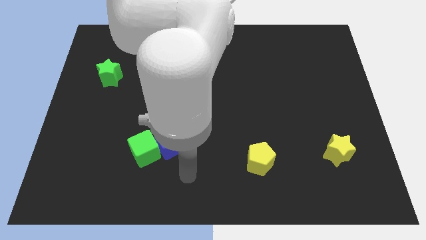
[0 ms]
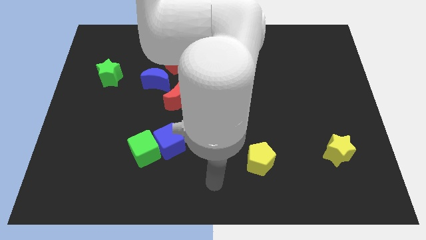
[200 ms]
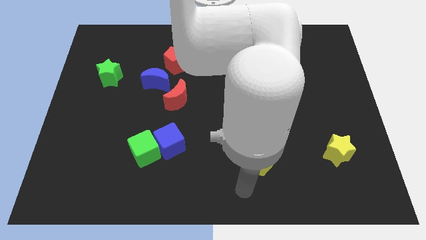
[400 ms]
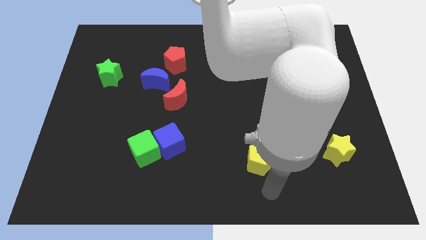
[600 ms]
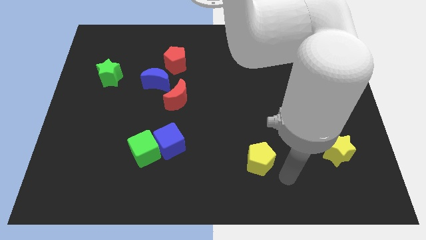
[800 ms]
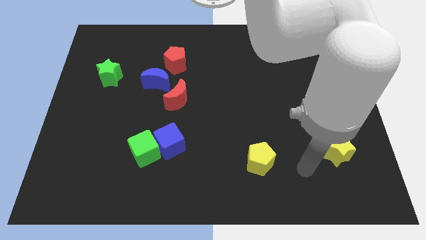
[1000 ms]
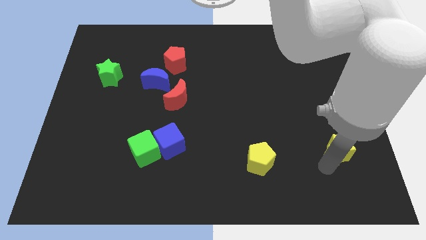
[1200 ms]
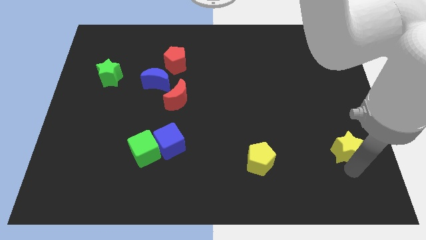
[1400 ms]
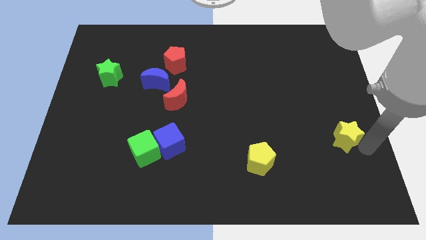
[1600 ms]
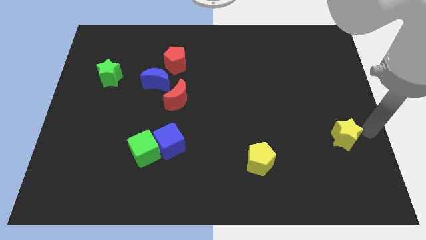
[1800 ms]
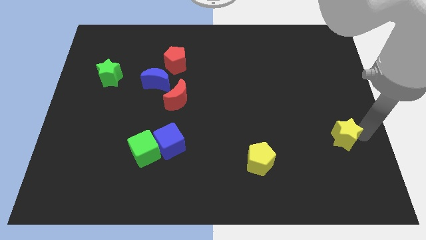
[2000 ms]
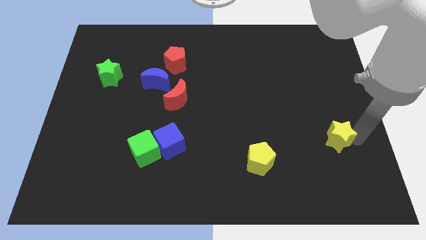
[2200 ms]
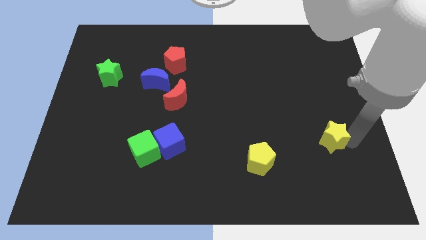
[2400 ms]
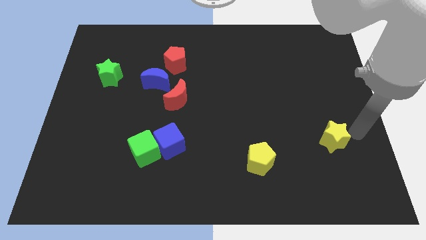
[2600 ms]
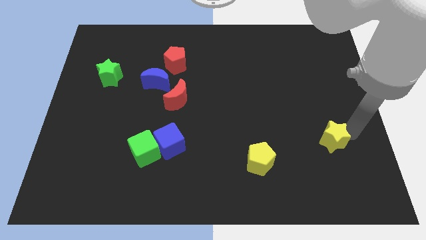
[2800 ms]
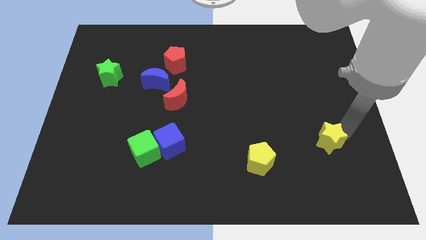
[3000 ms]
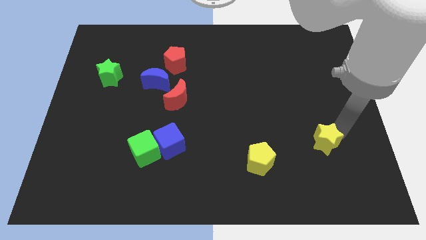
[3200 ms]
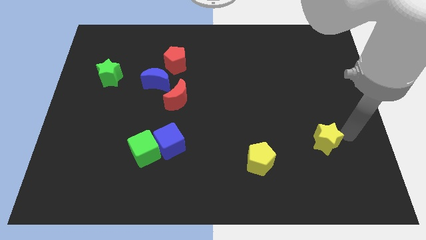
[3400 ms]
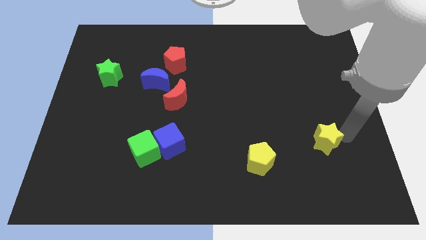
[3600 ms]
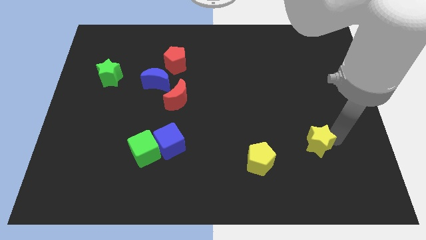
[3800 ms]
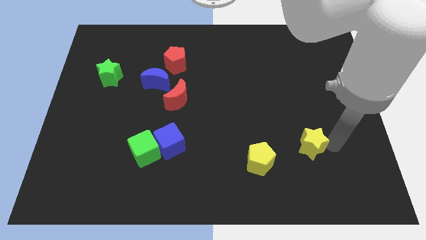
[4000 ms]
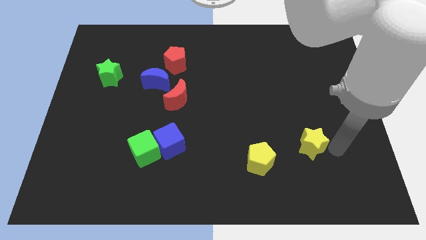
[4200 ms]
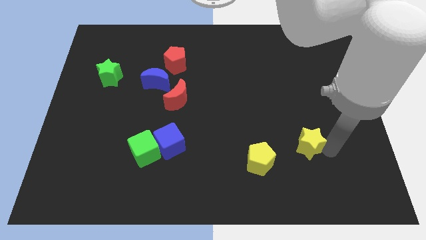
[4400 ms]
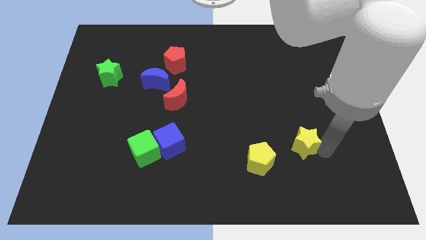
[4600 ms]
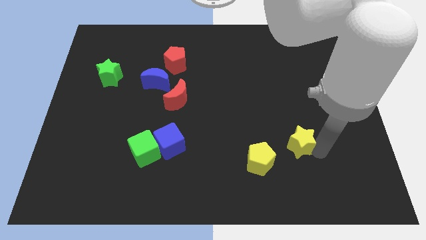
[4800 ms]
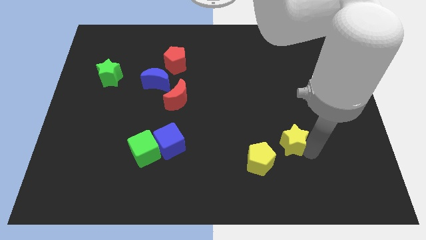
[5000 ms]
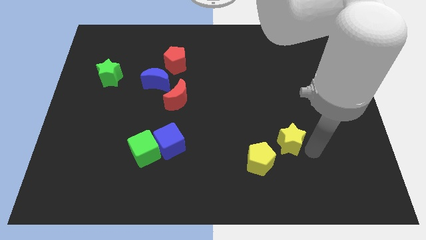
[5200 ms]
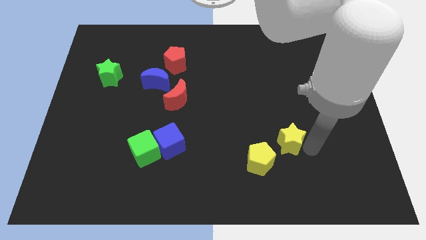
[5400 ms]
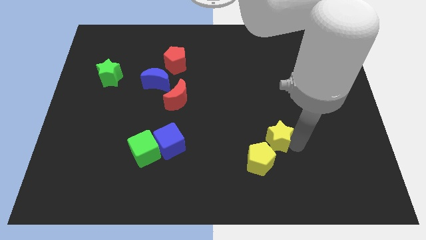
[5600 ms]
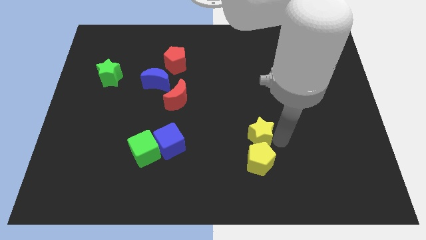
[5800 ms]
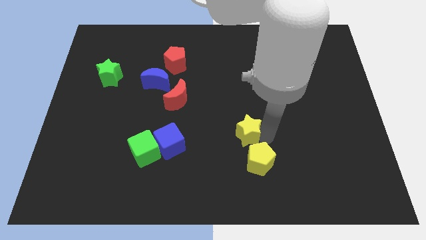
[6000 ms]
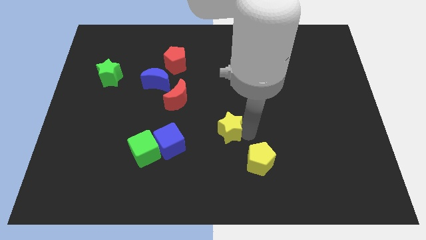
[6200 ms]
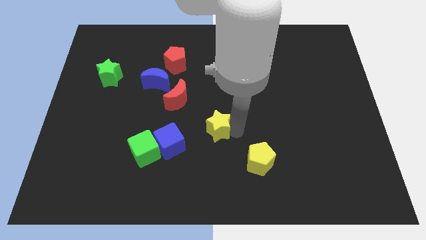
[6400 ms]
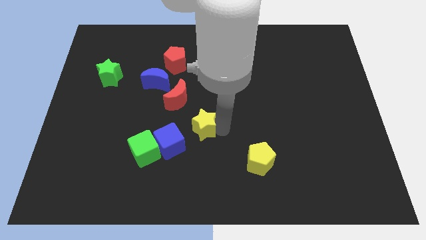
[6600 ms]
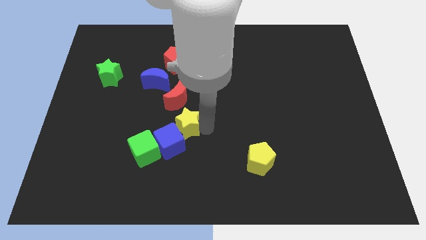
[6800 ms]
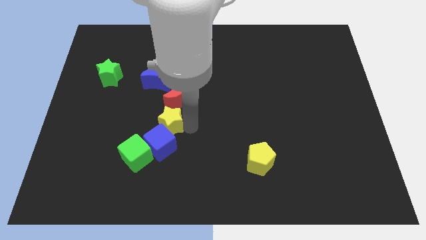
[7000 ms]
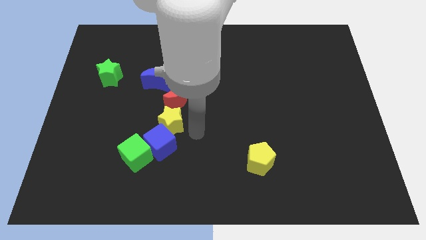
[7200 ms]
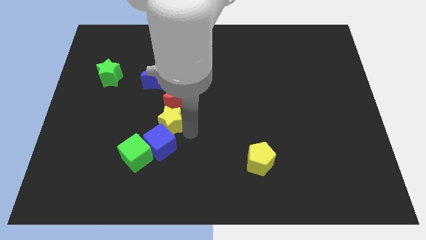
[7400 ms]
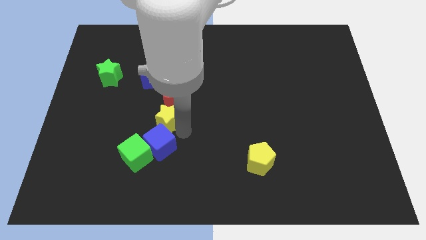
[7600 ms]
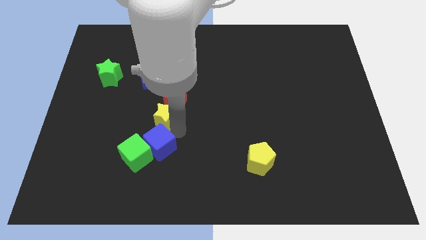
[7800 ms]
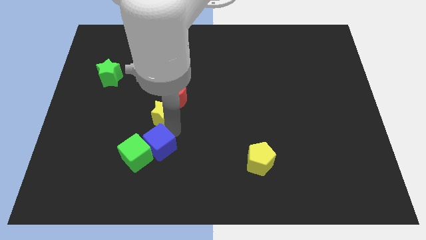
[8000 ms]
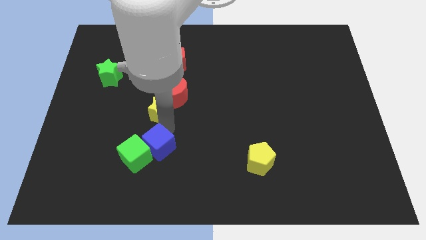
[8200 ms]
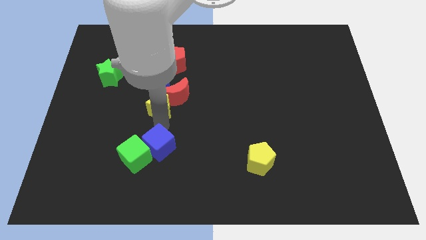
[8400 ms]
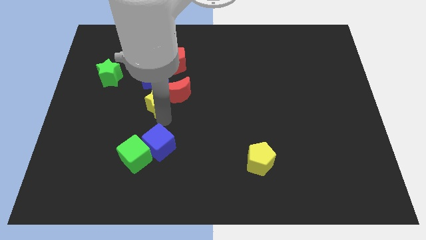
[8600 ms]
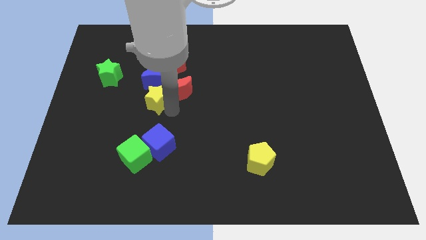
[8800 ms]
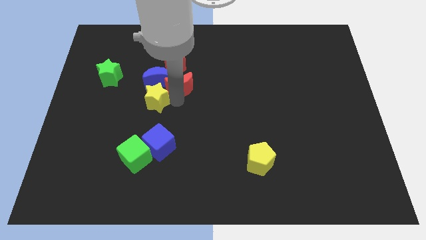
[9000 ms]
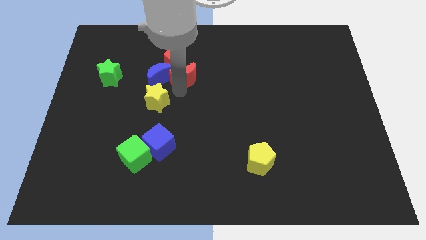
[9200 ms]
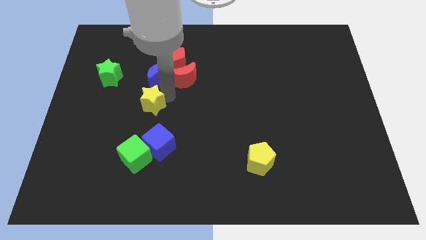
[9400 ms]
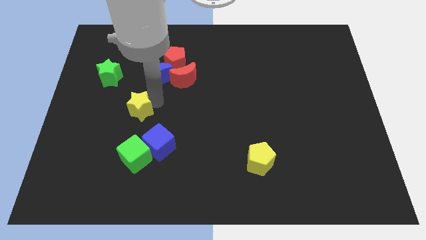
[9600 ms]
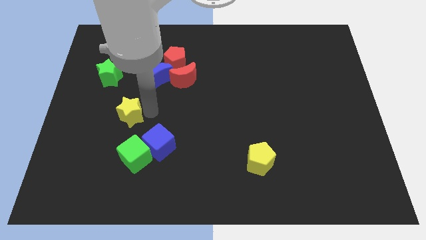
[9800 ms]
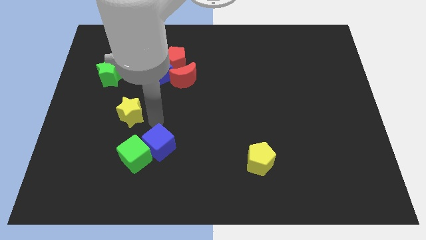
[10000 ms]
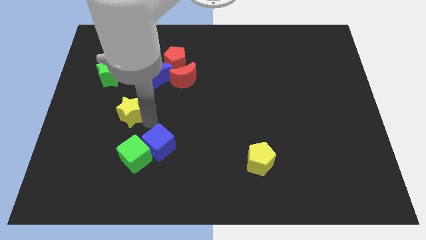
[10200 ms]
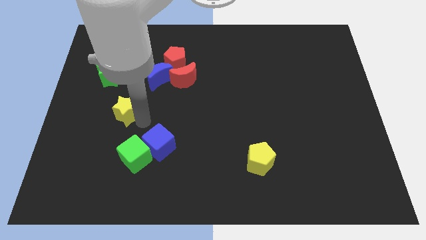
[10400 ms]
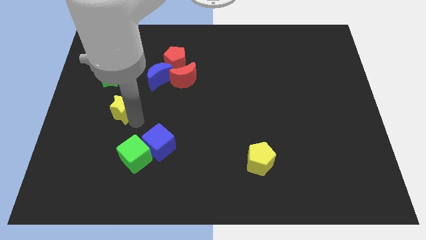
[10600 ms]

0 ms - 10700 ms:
slide the yellow star to the bottom of the green star

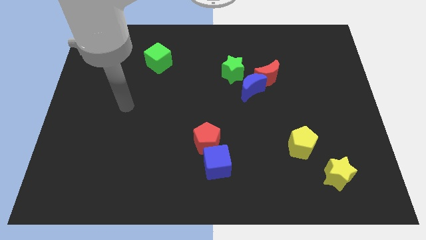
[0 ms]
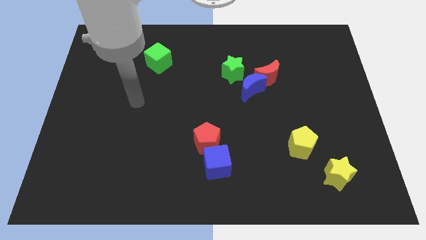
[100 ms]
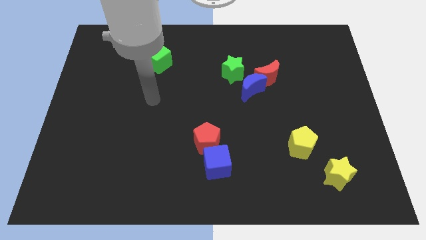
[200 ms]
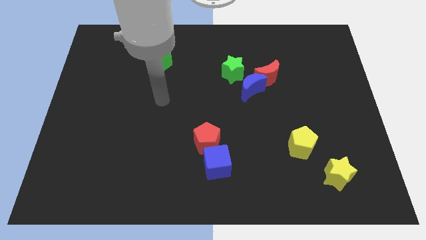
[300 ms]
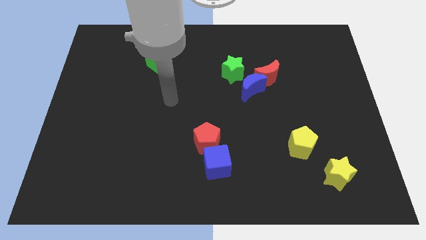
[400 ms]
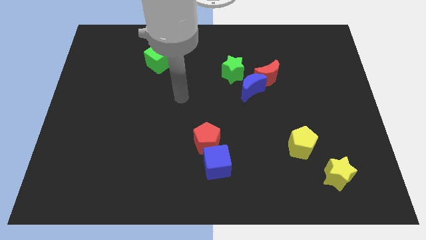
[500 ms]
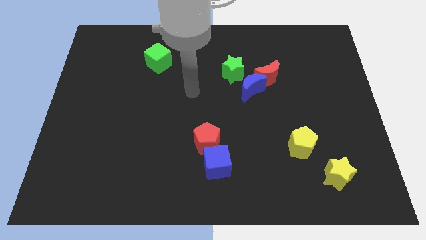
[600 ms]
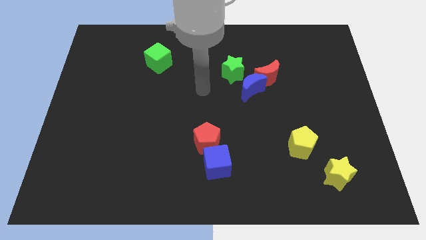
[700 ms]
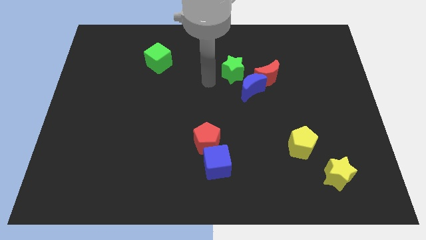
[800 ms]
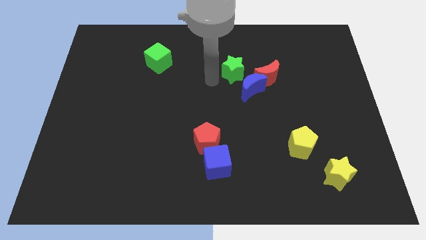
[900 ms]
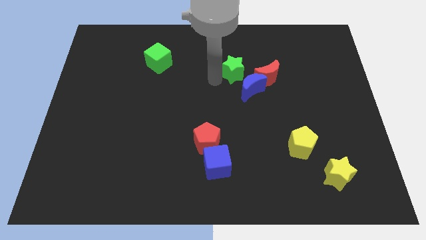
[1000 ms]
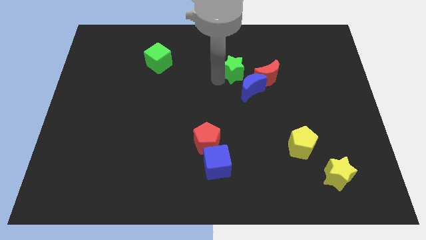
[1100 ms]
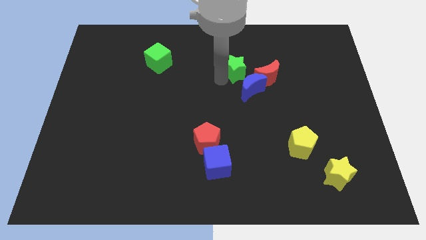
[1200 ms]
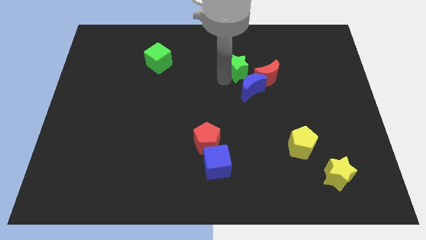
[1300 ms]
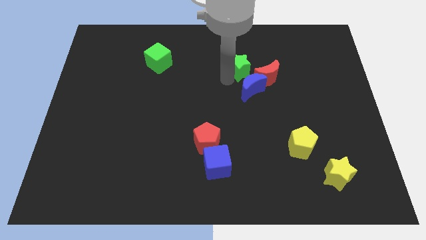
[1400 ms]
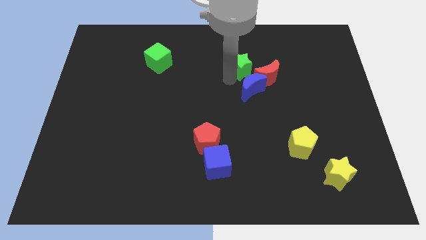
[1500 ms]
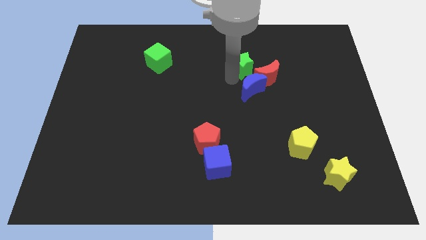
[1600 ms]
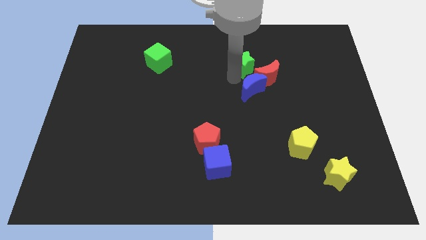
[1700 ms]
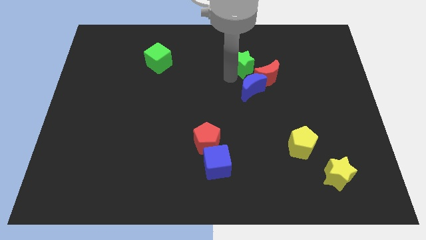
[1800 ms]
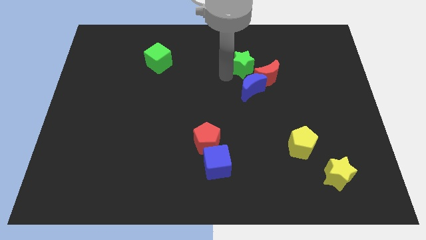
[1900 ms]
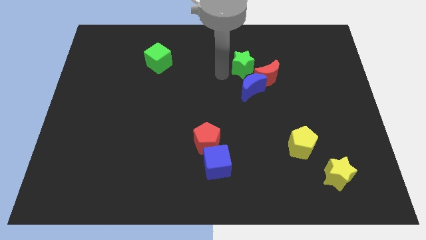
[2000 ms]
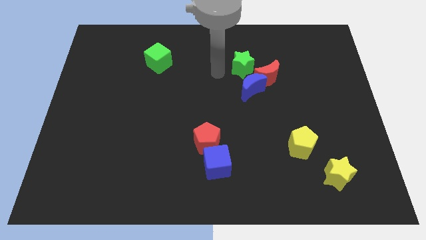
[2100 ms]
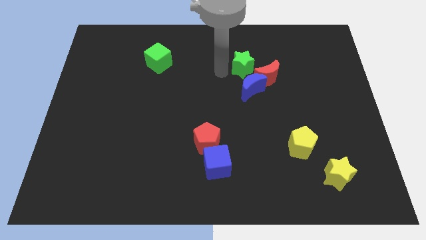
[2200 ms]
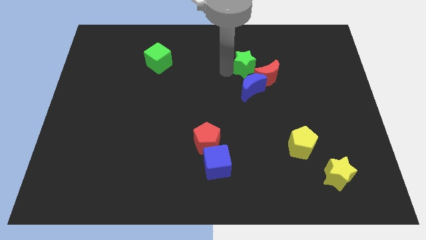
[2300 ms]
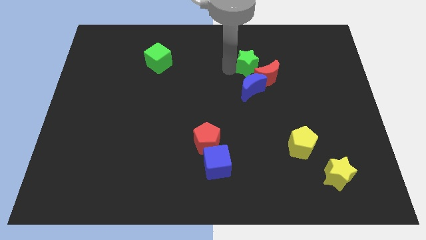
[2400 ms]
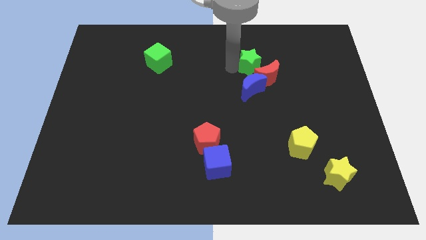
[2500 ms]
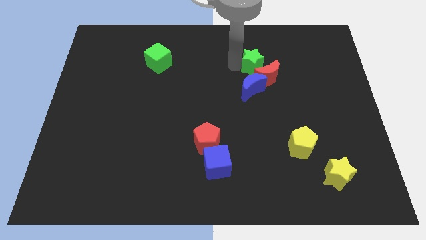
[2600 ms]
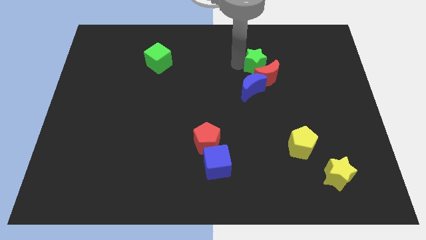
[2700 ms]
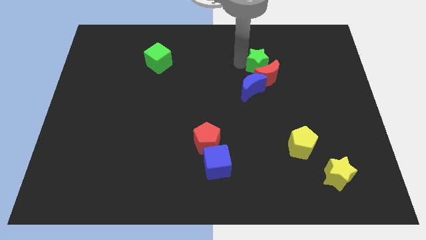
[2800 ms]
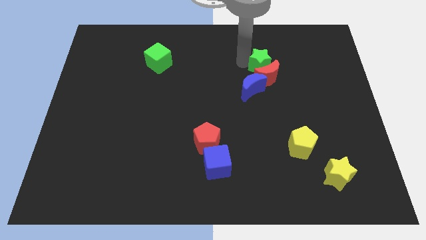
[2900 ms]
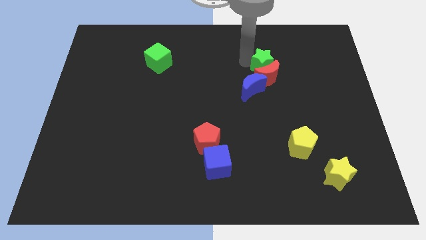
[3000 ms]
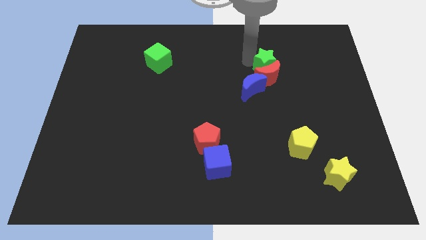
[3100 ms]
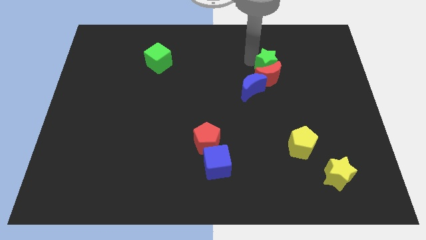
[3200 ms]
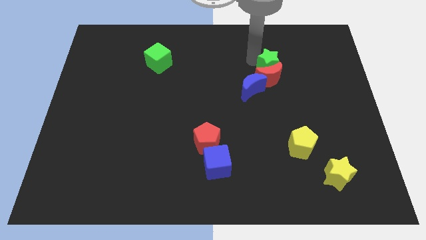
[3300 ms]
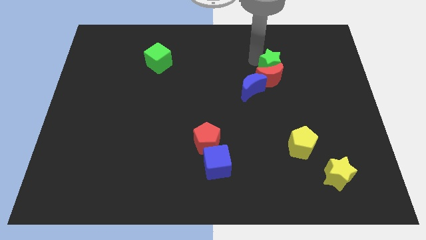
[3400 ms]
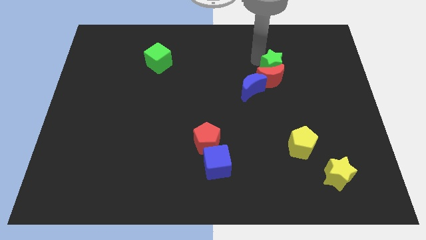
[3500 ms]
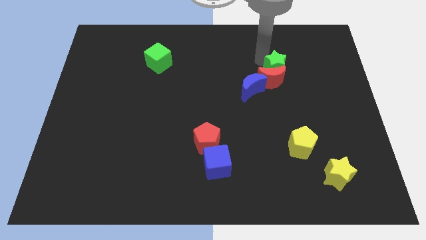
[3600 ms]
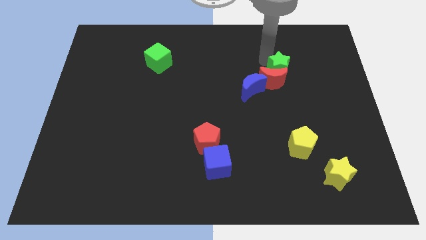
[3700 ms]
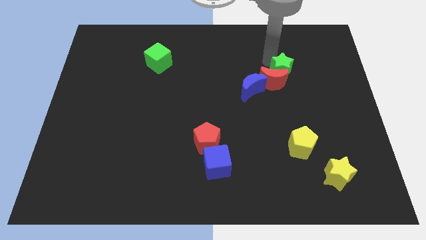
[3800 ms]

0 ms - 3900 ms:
move the green star right of the red moon
